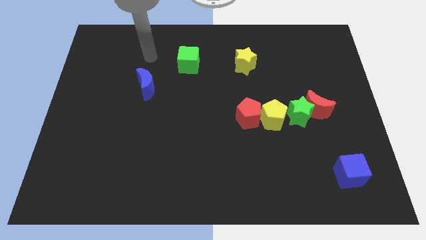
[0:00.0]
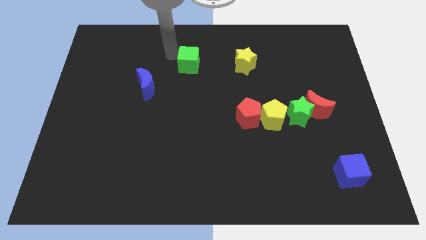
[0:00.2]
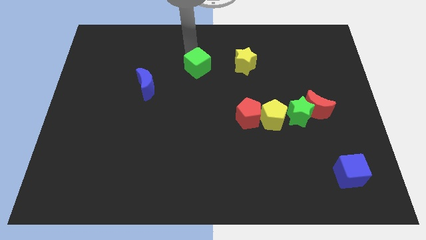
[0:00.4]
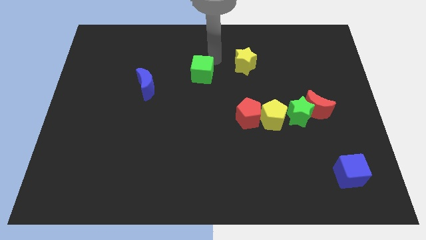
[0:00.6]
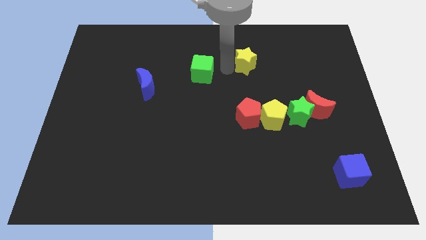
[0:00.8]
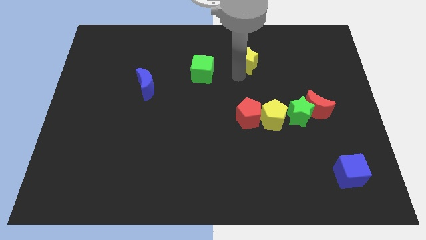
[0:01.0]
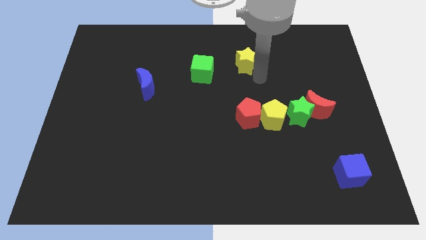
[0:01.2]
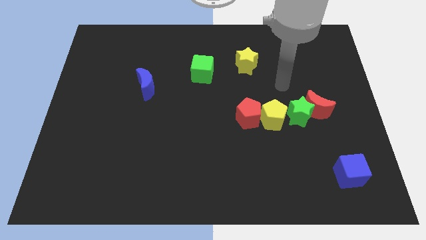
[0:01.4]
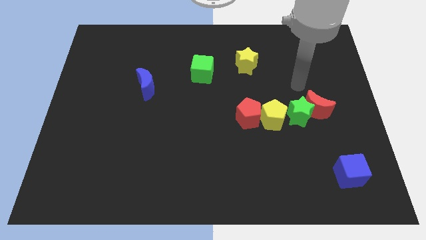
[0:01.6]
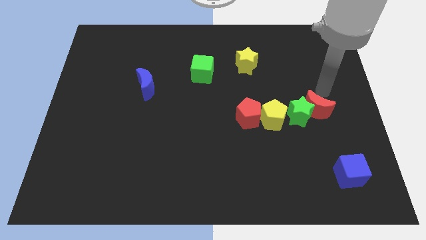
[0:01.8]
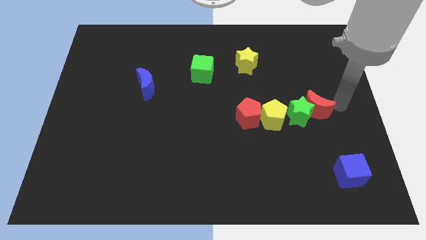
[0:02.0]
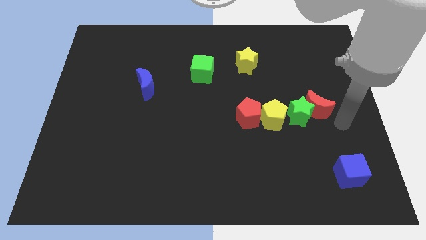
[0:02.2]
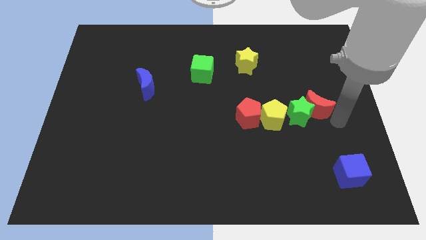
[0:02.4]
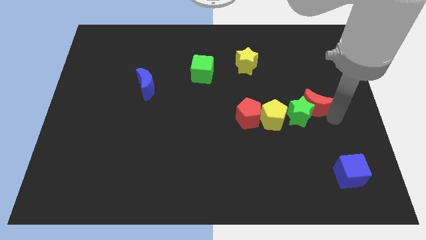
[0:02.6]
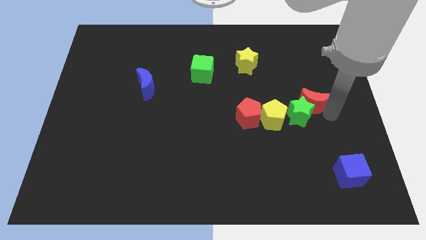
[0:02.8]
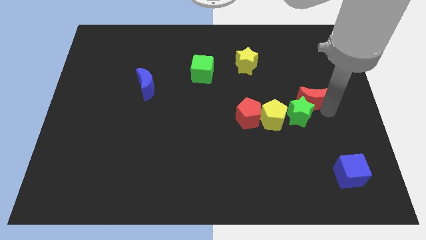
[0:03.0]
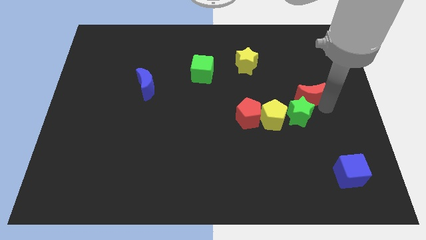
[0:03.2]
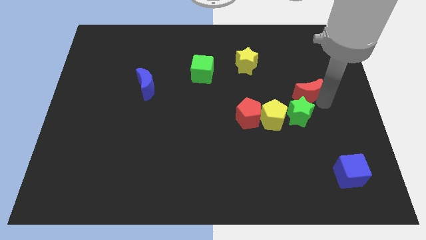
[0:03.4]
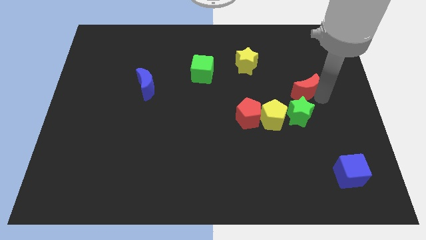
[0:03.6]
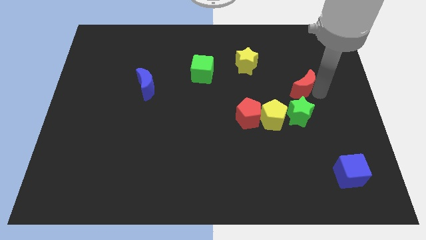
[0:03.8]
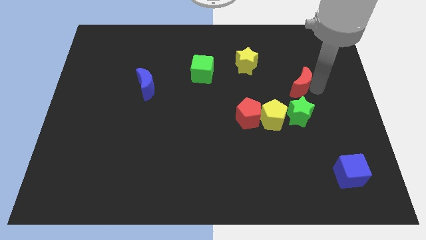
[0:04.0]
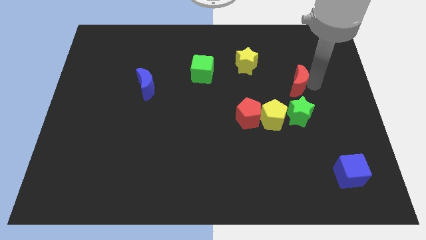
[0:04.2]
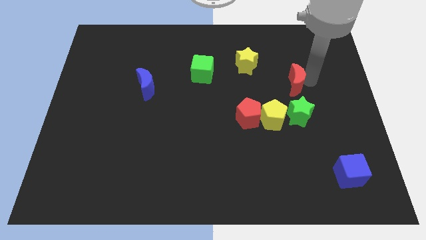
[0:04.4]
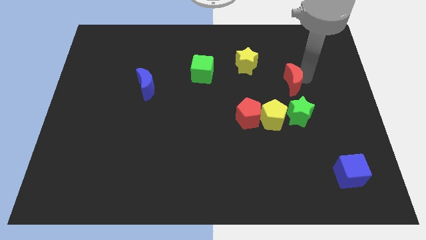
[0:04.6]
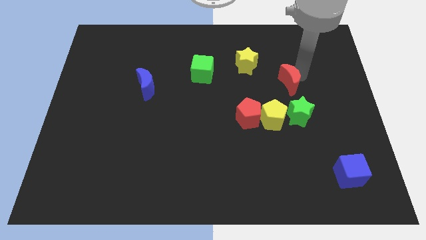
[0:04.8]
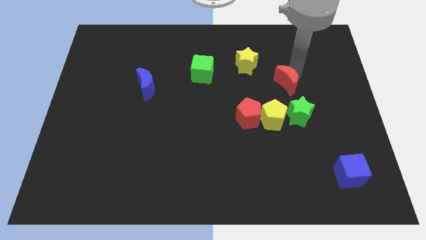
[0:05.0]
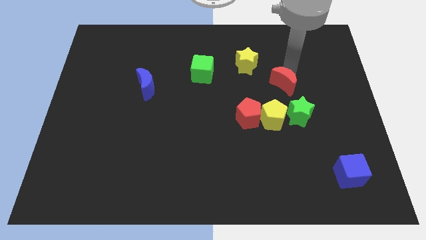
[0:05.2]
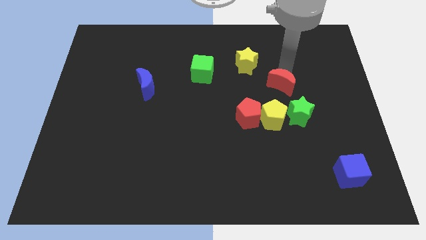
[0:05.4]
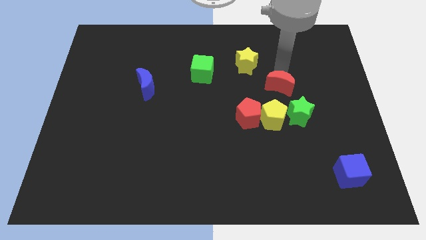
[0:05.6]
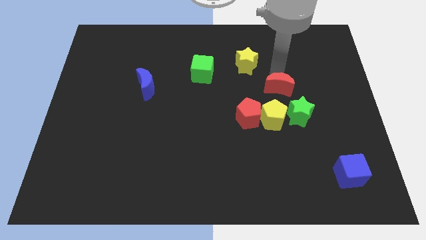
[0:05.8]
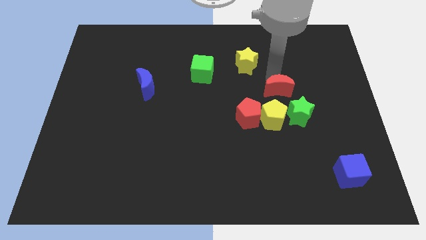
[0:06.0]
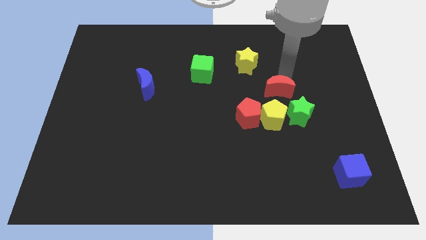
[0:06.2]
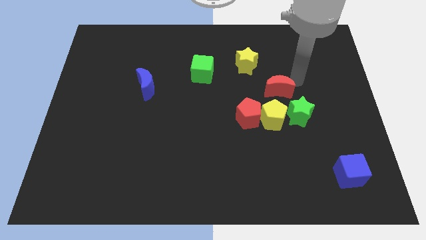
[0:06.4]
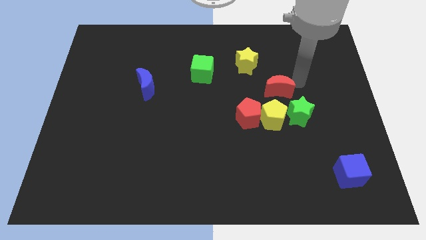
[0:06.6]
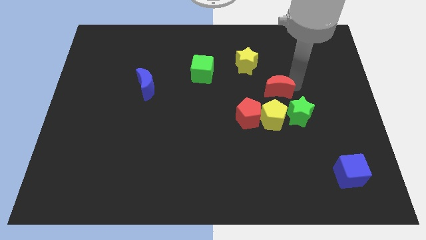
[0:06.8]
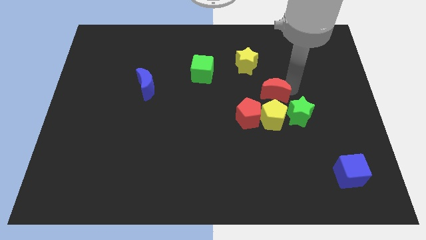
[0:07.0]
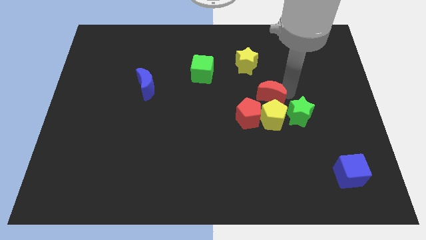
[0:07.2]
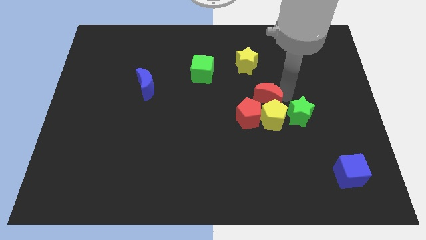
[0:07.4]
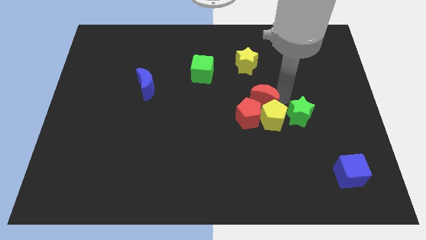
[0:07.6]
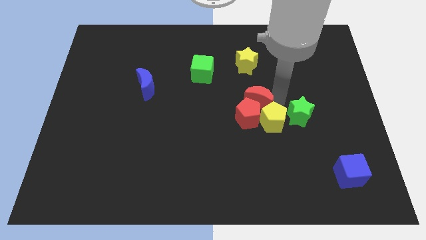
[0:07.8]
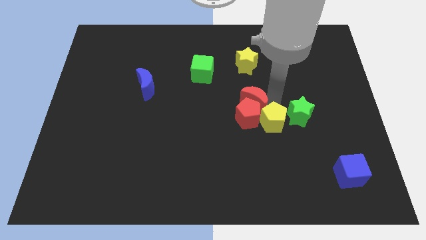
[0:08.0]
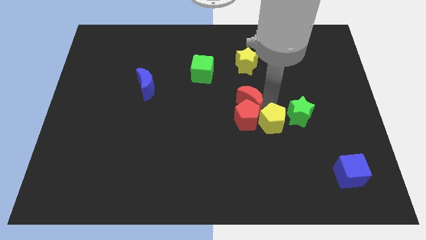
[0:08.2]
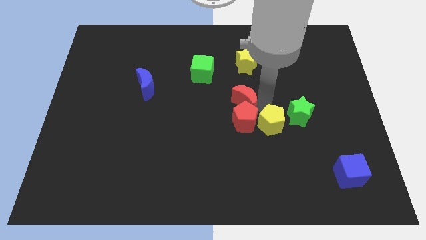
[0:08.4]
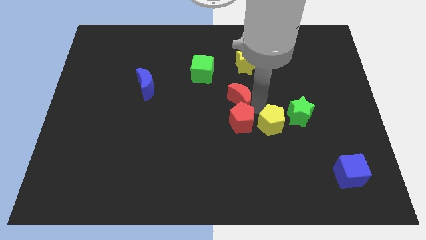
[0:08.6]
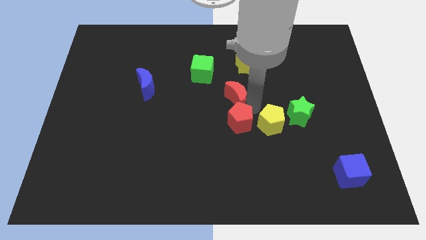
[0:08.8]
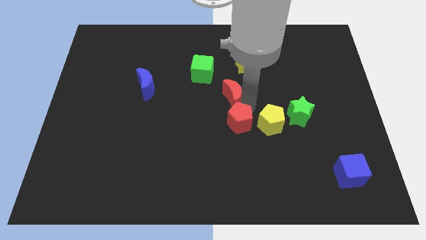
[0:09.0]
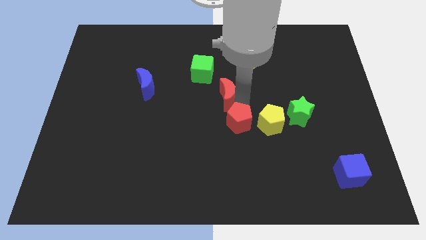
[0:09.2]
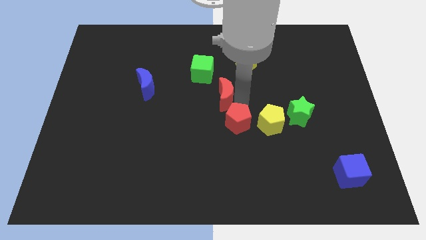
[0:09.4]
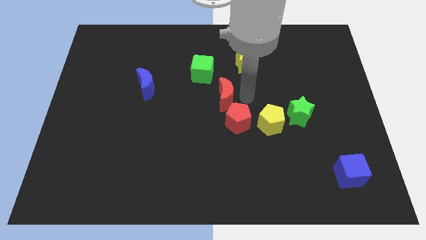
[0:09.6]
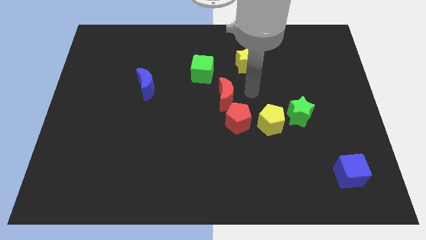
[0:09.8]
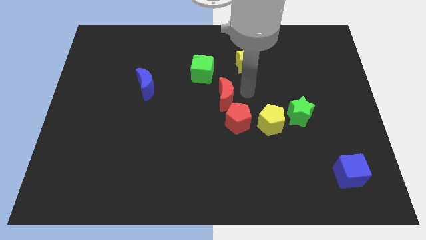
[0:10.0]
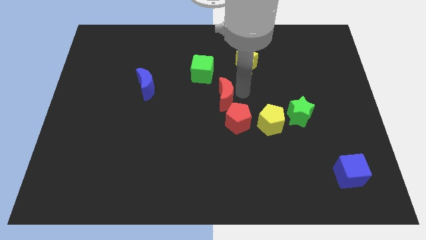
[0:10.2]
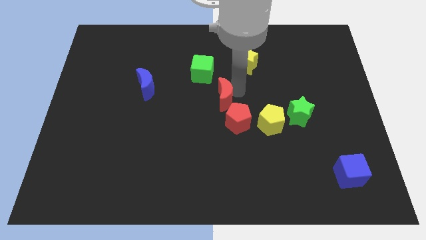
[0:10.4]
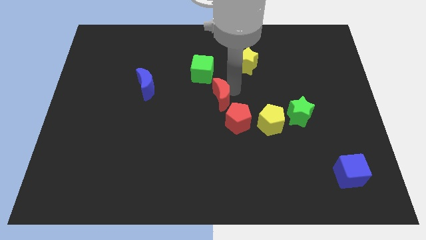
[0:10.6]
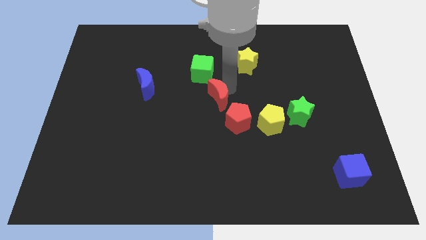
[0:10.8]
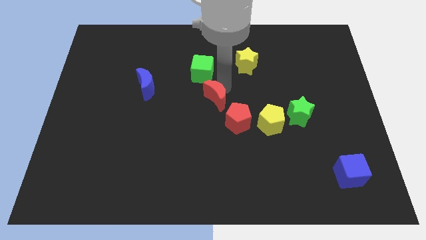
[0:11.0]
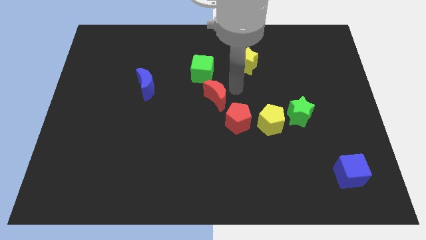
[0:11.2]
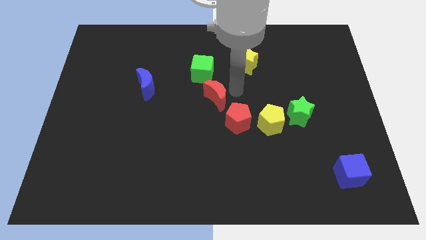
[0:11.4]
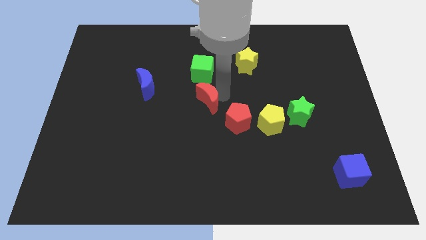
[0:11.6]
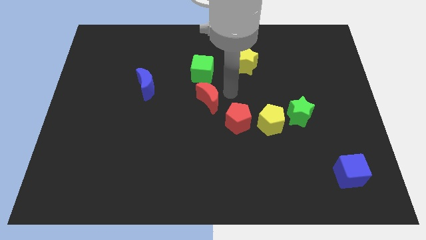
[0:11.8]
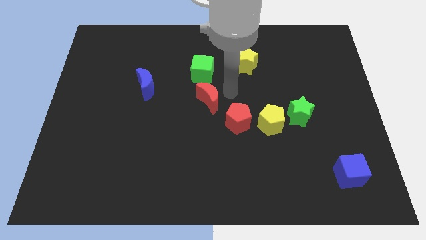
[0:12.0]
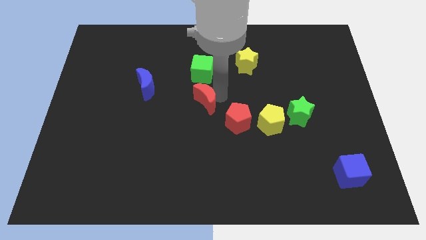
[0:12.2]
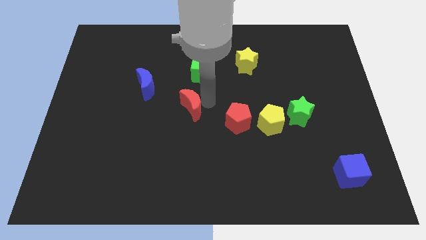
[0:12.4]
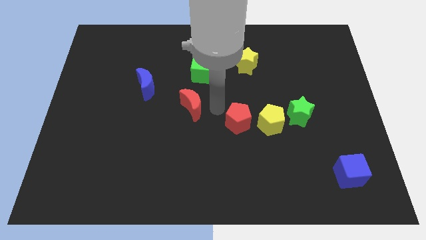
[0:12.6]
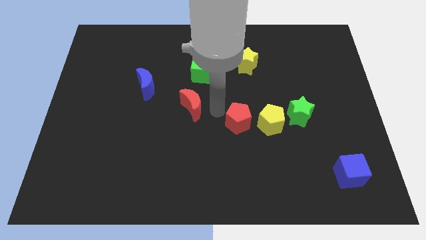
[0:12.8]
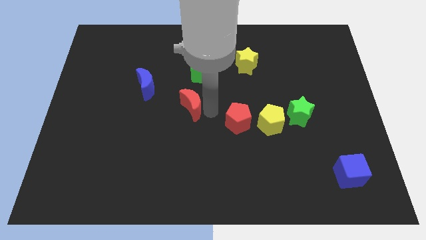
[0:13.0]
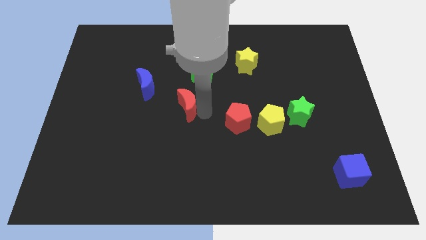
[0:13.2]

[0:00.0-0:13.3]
slide the red moon to the bottom right side of the blue moon

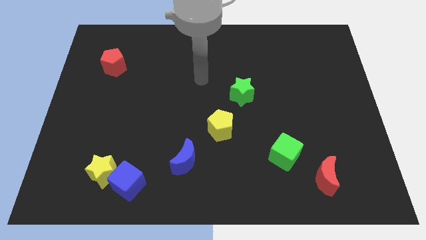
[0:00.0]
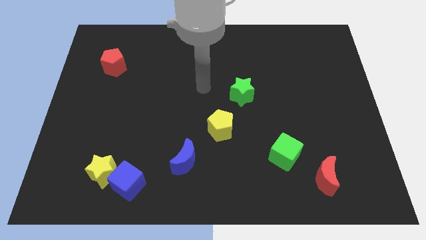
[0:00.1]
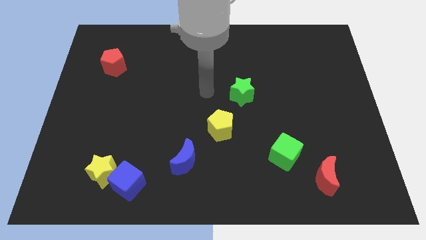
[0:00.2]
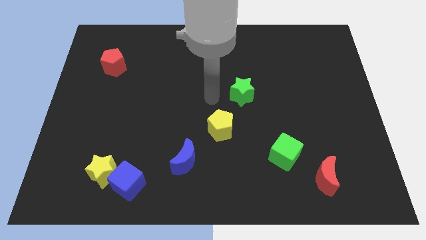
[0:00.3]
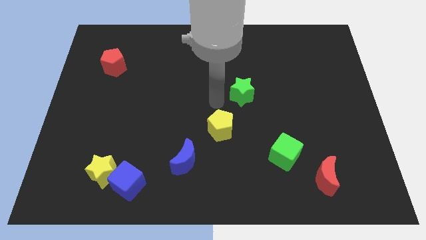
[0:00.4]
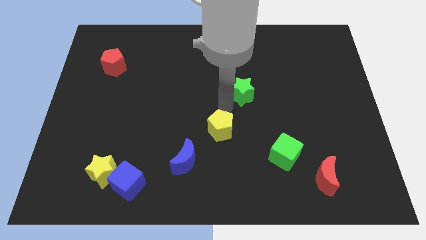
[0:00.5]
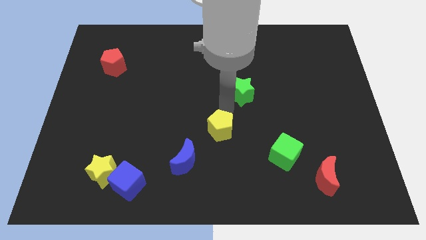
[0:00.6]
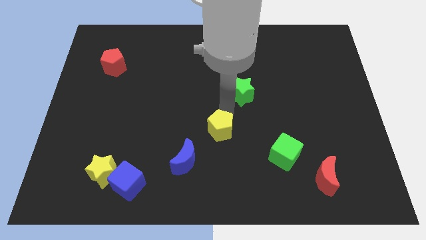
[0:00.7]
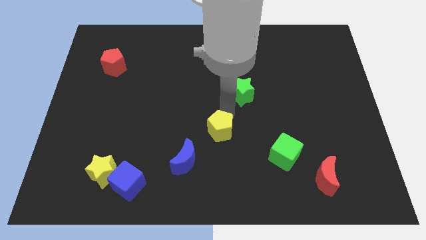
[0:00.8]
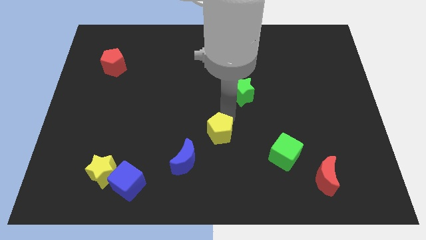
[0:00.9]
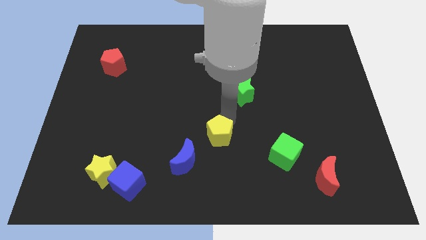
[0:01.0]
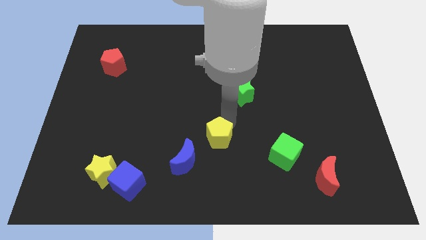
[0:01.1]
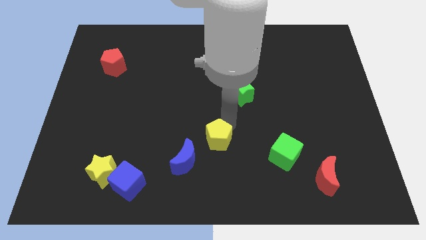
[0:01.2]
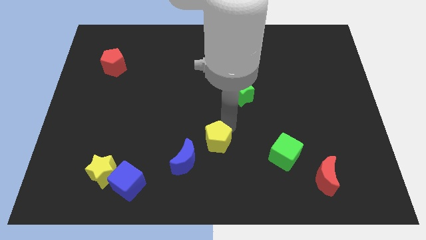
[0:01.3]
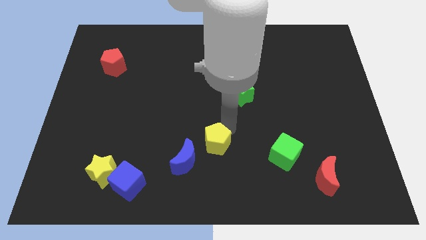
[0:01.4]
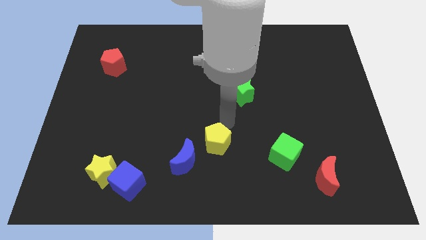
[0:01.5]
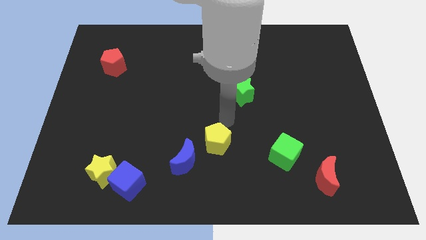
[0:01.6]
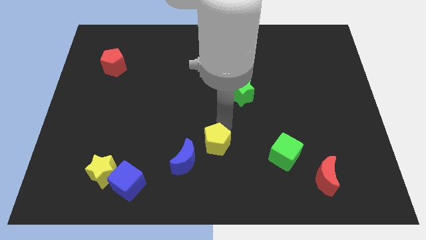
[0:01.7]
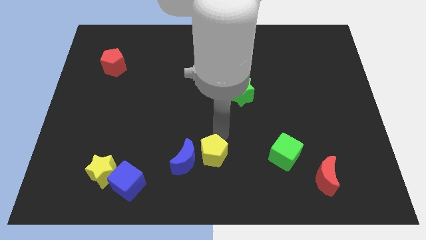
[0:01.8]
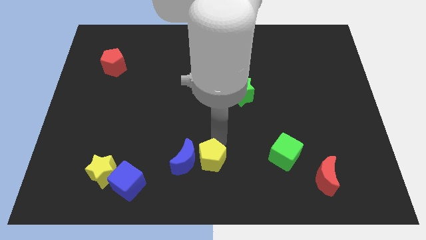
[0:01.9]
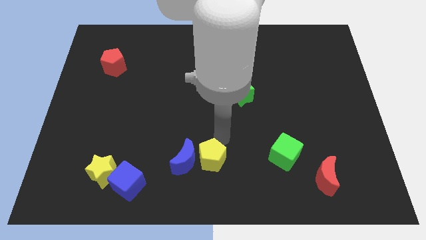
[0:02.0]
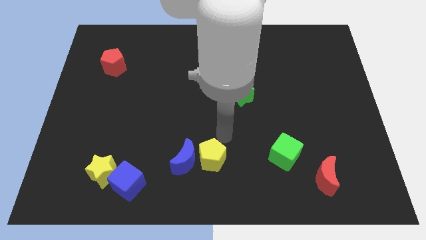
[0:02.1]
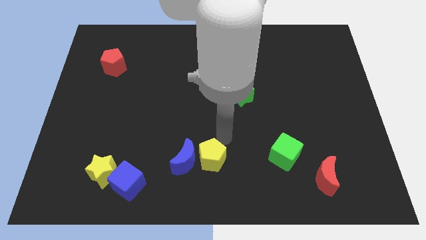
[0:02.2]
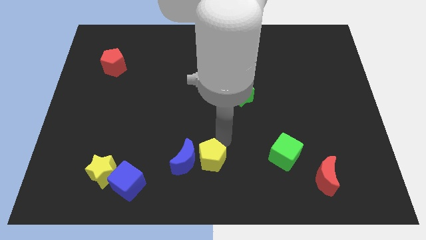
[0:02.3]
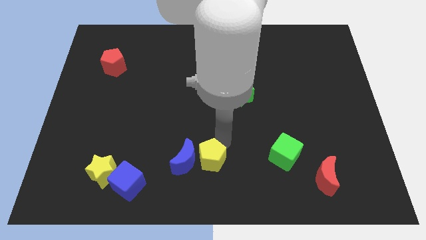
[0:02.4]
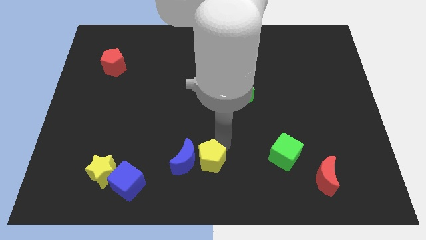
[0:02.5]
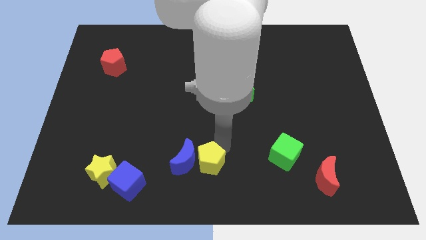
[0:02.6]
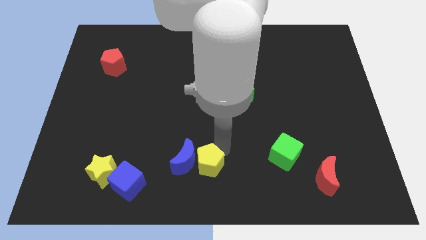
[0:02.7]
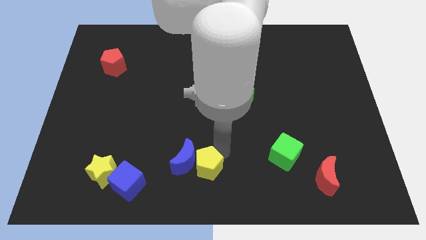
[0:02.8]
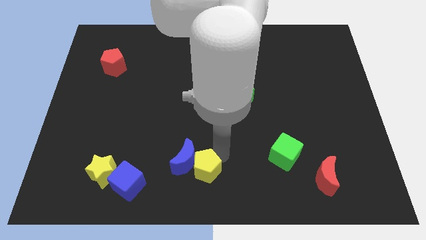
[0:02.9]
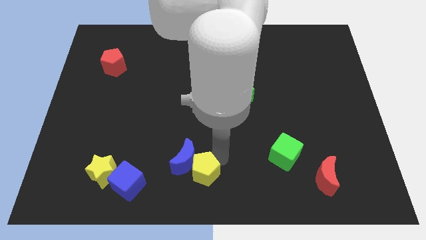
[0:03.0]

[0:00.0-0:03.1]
put the yellow pentagon to the right side of the blue cube
